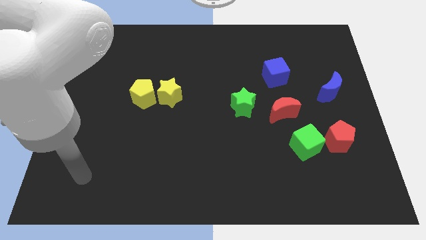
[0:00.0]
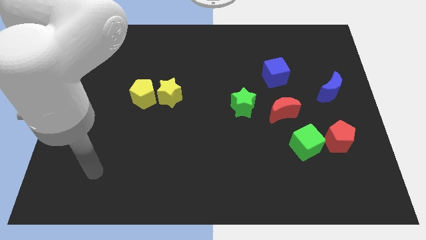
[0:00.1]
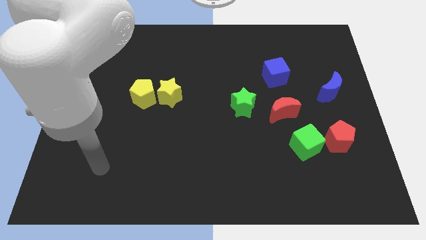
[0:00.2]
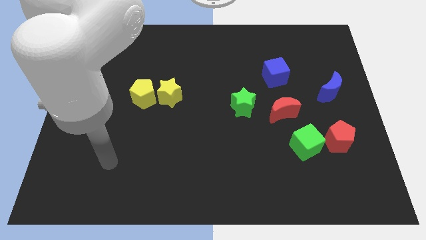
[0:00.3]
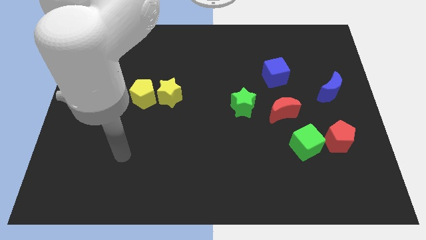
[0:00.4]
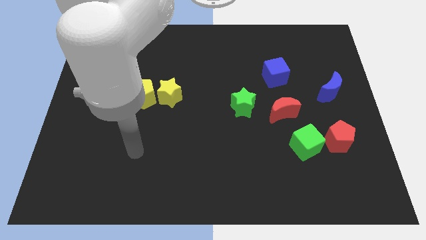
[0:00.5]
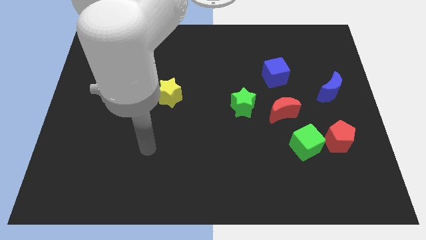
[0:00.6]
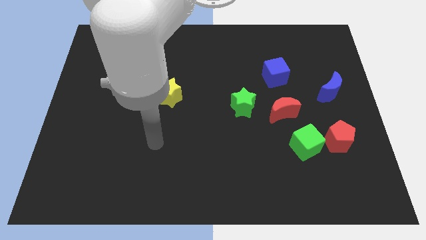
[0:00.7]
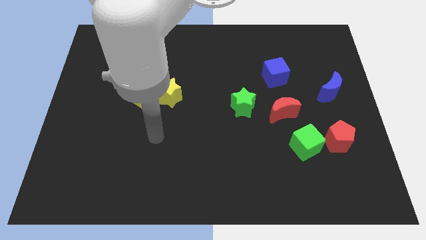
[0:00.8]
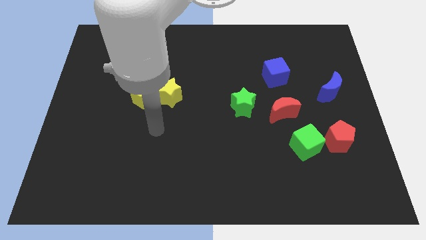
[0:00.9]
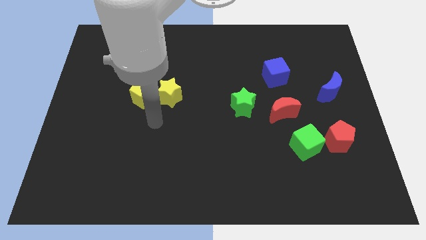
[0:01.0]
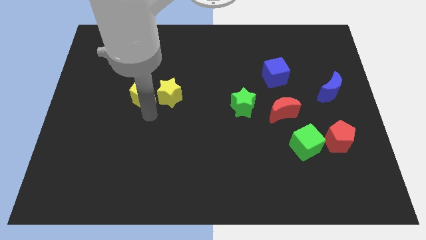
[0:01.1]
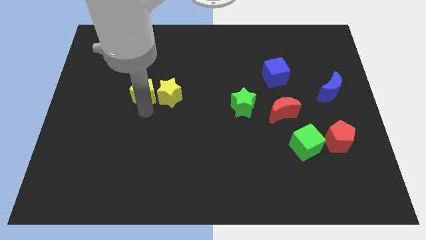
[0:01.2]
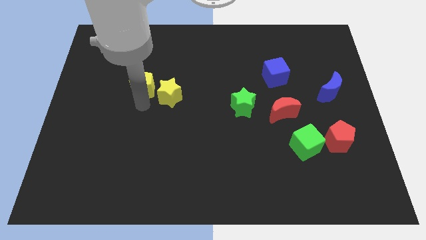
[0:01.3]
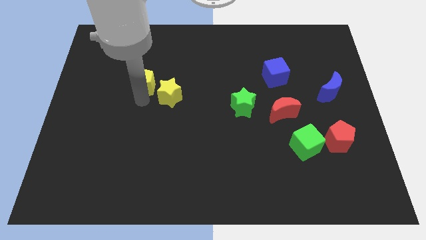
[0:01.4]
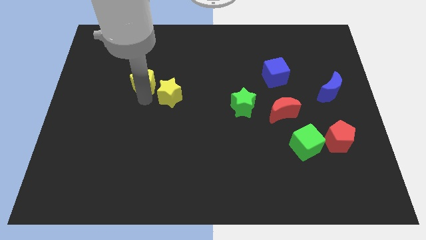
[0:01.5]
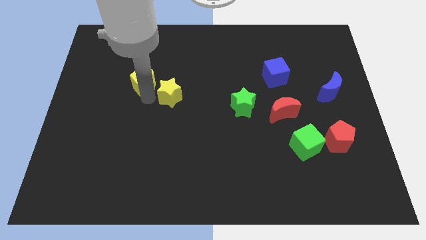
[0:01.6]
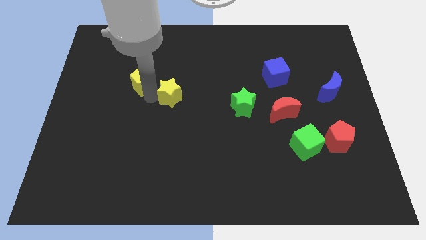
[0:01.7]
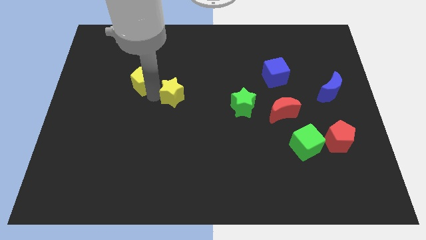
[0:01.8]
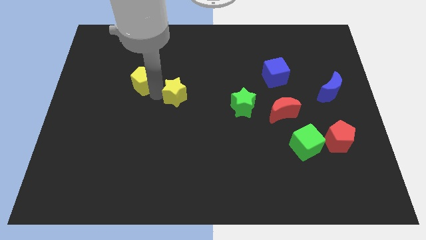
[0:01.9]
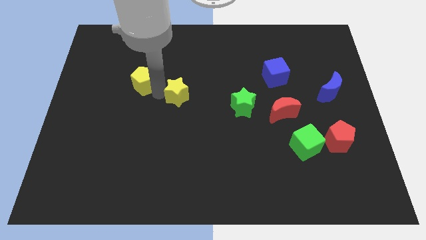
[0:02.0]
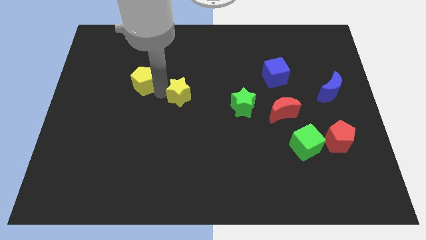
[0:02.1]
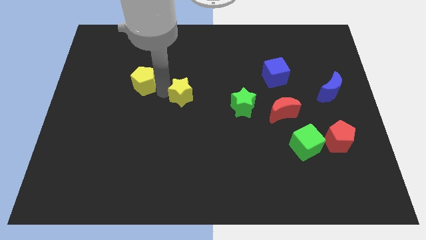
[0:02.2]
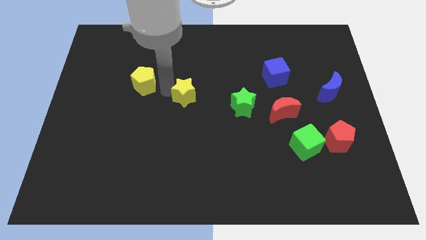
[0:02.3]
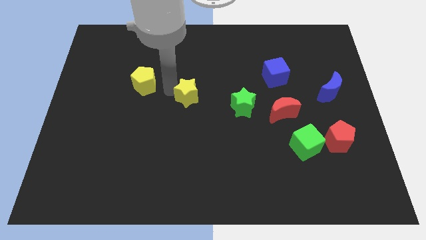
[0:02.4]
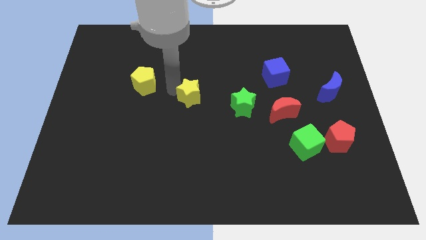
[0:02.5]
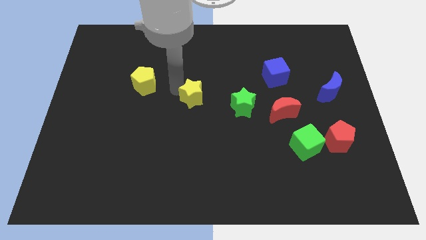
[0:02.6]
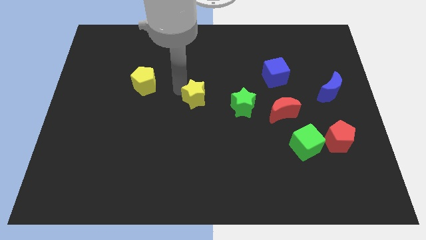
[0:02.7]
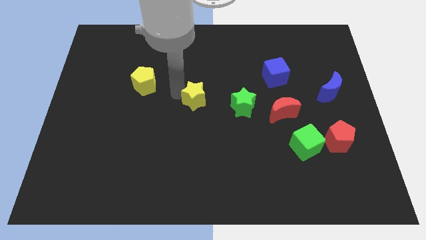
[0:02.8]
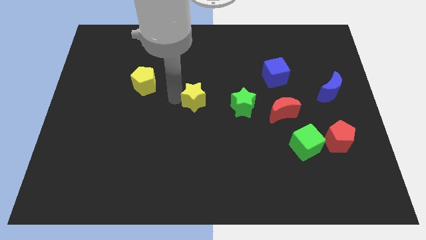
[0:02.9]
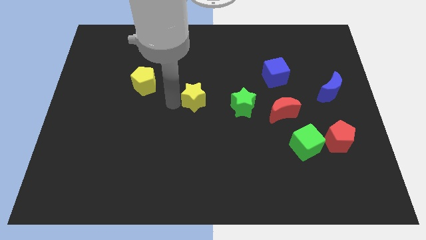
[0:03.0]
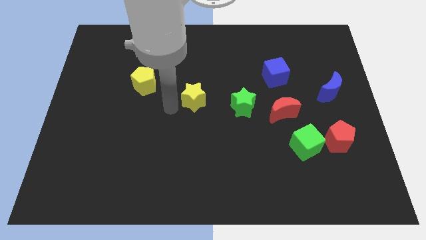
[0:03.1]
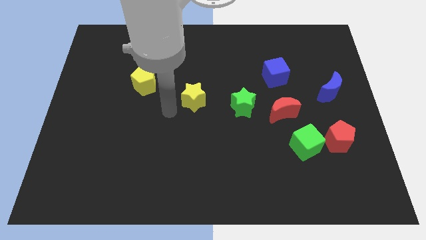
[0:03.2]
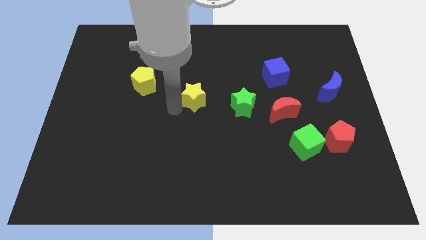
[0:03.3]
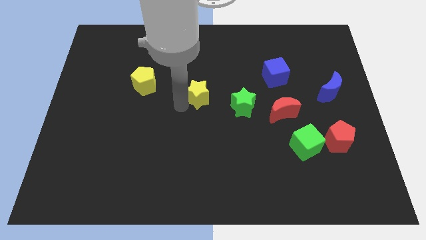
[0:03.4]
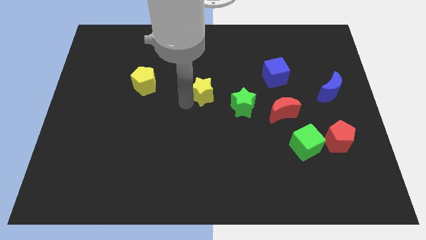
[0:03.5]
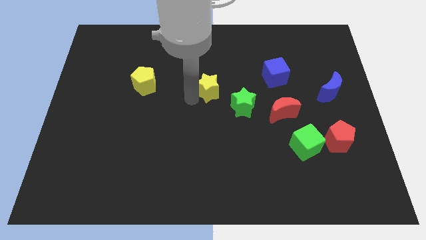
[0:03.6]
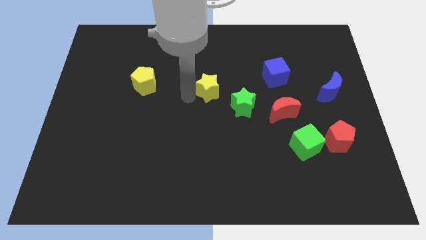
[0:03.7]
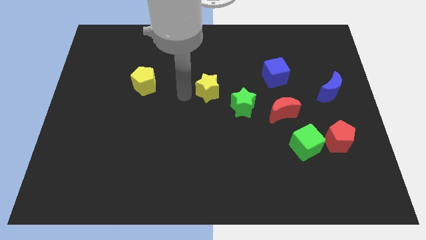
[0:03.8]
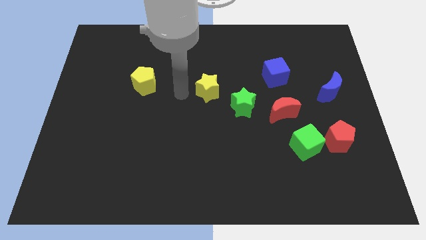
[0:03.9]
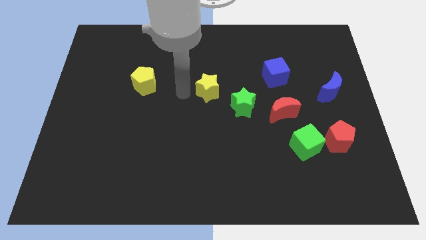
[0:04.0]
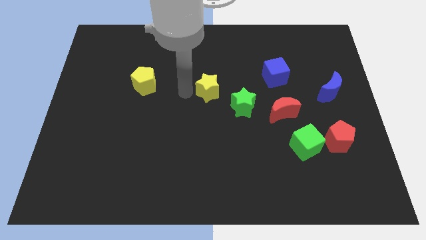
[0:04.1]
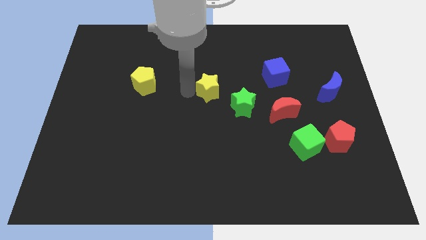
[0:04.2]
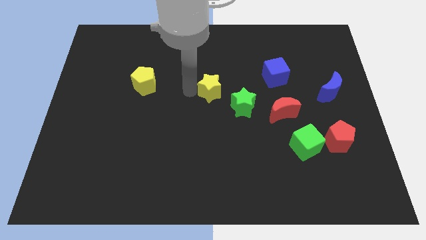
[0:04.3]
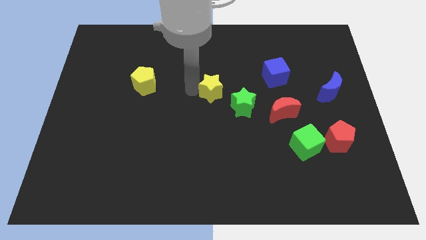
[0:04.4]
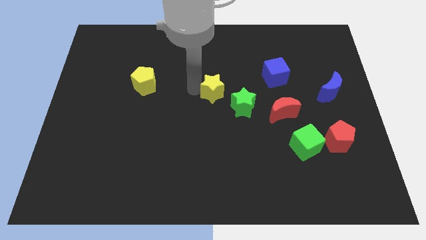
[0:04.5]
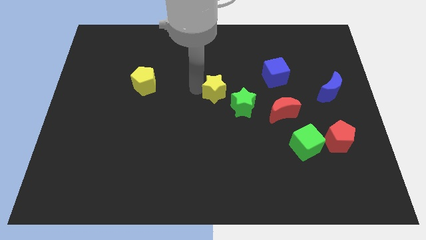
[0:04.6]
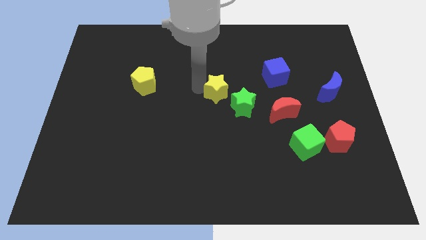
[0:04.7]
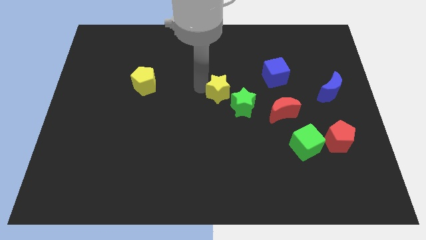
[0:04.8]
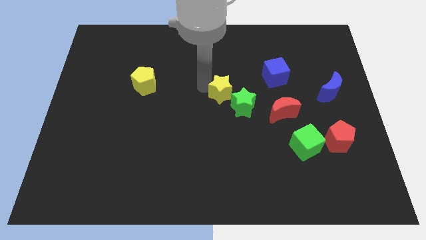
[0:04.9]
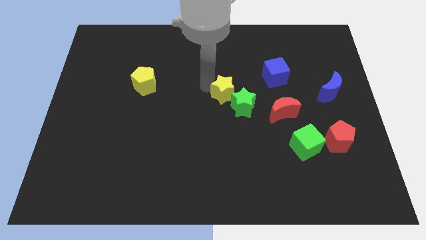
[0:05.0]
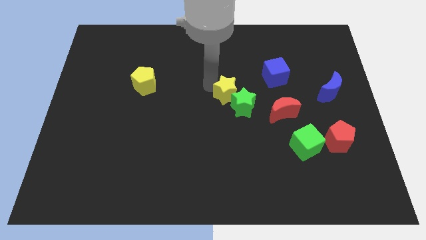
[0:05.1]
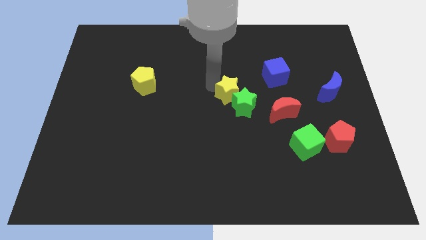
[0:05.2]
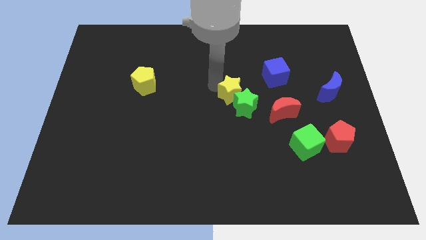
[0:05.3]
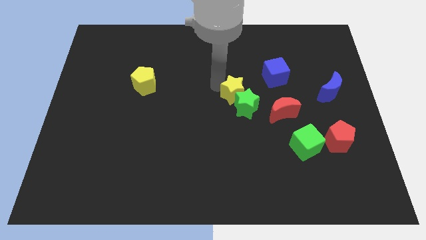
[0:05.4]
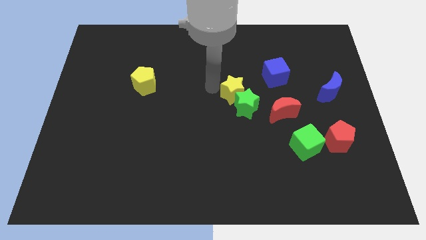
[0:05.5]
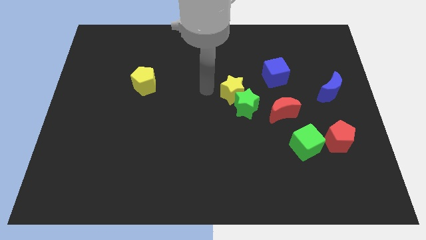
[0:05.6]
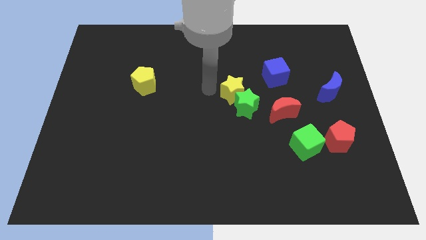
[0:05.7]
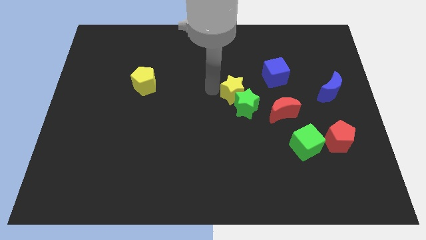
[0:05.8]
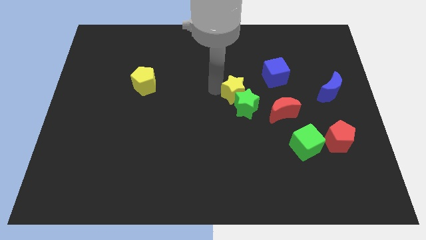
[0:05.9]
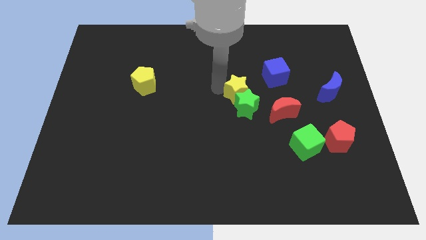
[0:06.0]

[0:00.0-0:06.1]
push the yellow star diagonally up and to the left of the red moon
